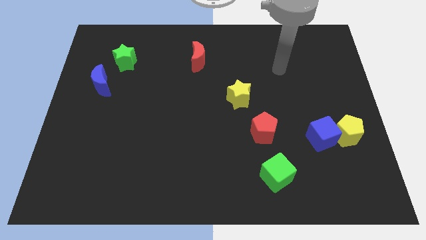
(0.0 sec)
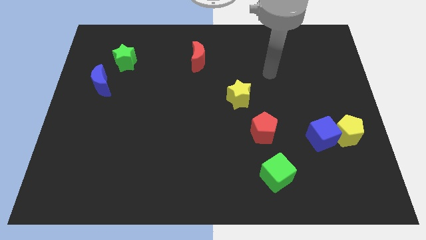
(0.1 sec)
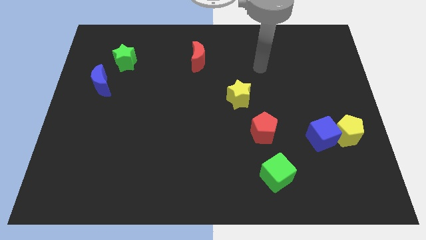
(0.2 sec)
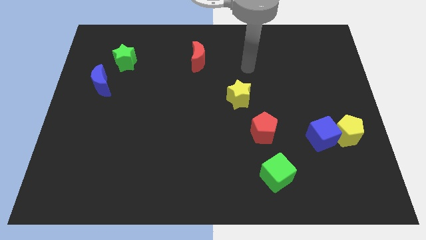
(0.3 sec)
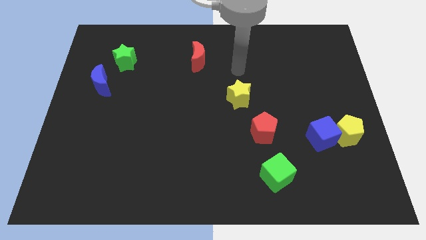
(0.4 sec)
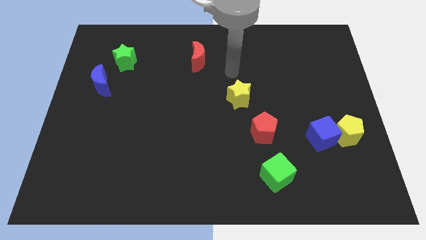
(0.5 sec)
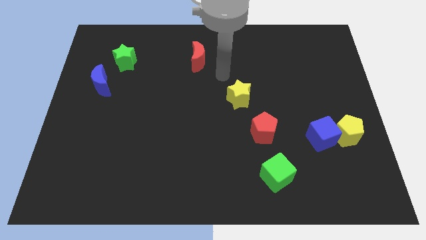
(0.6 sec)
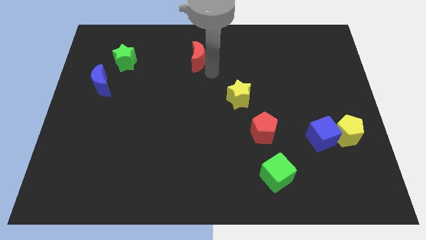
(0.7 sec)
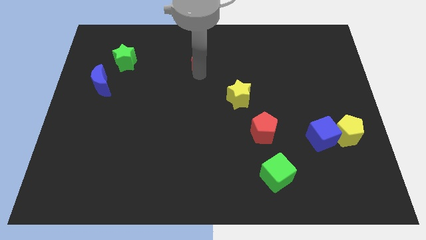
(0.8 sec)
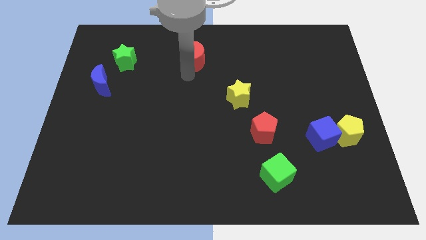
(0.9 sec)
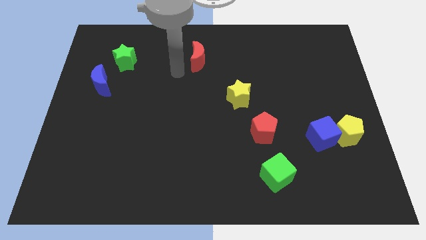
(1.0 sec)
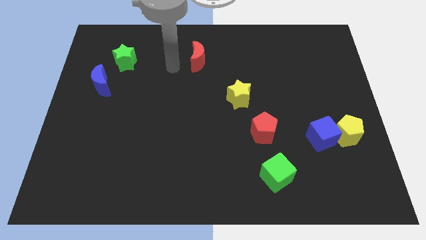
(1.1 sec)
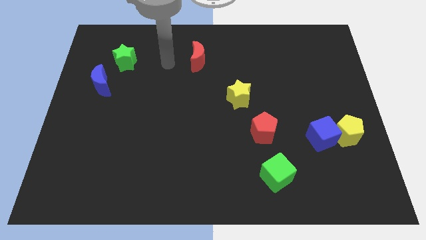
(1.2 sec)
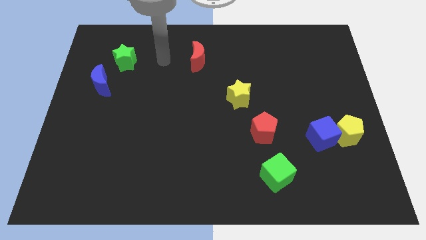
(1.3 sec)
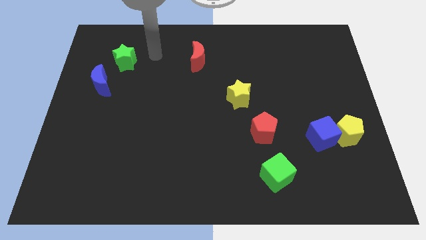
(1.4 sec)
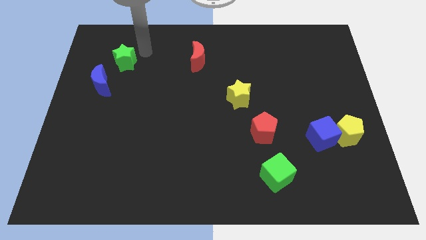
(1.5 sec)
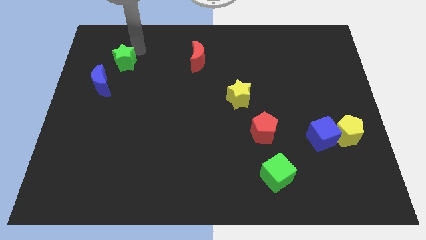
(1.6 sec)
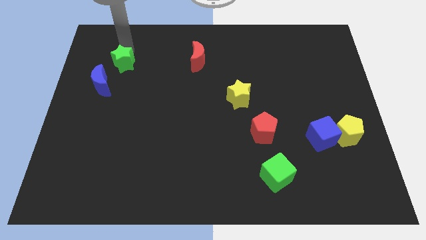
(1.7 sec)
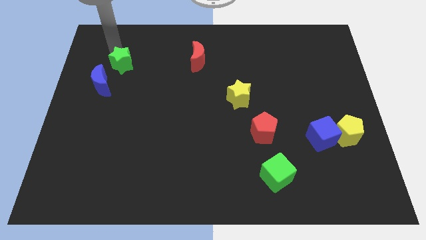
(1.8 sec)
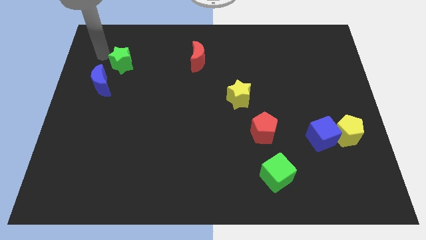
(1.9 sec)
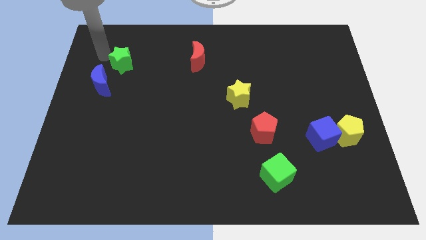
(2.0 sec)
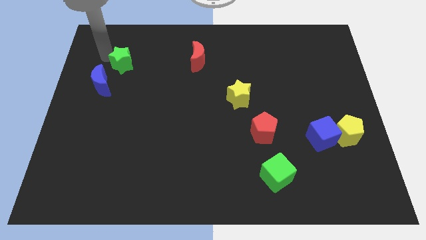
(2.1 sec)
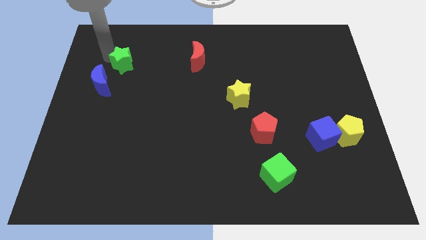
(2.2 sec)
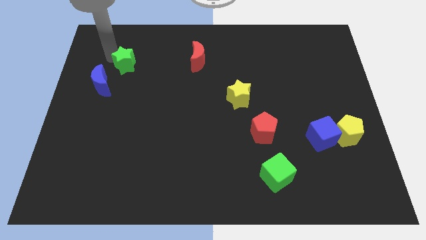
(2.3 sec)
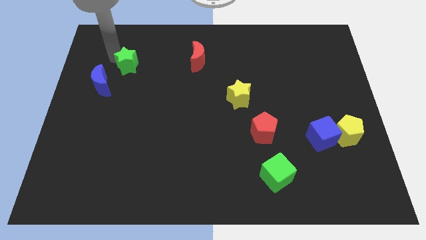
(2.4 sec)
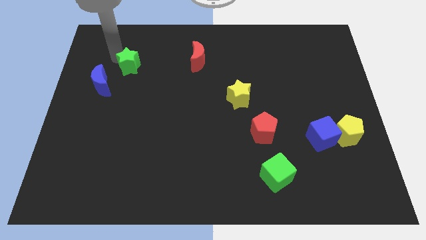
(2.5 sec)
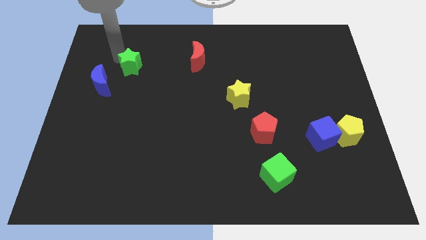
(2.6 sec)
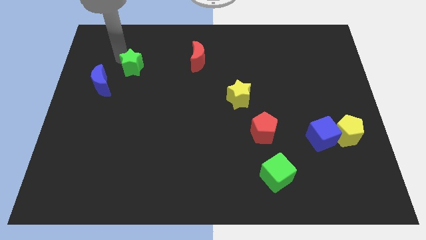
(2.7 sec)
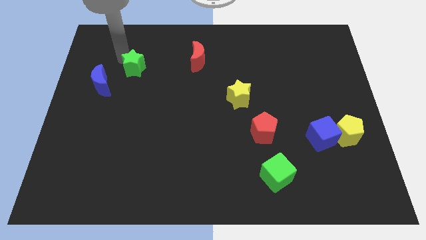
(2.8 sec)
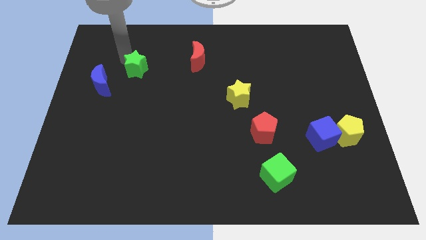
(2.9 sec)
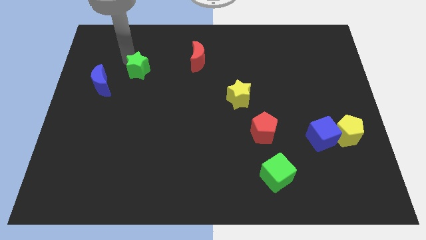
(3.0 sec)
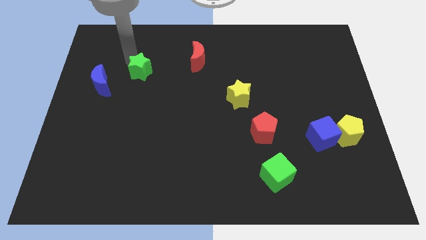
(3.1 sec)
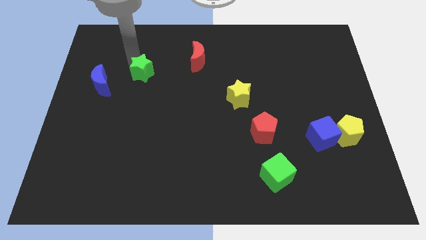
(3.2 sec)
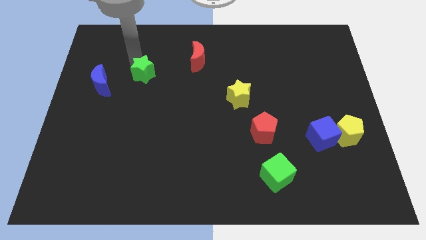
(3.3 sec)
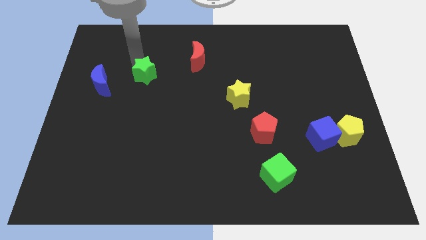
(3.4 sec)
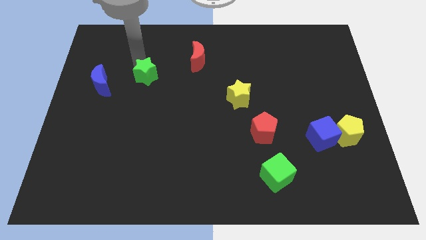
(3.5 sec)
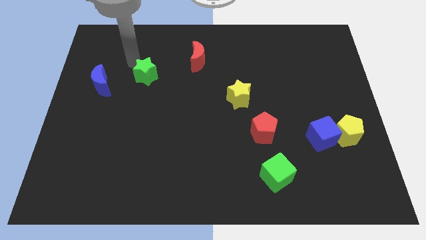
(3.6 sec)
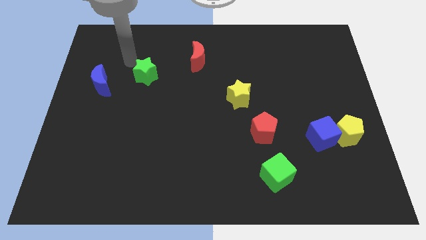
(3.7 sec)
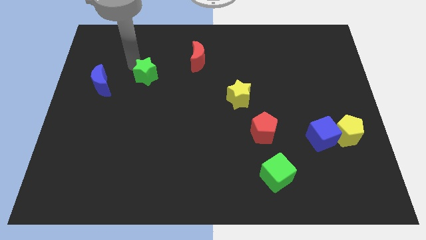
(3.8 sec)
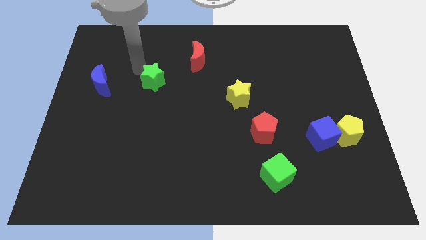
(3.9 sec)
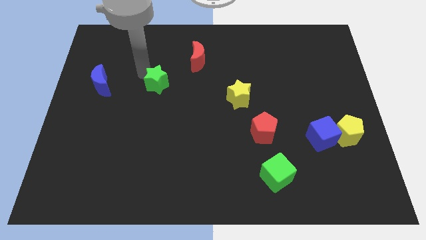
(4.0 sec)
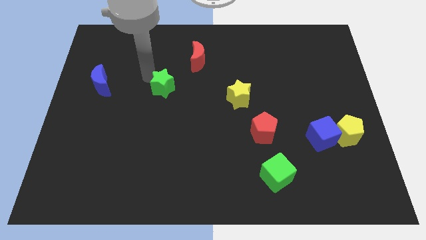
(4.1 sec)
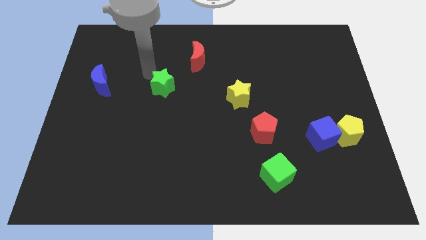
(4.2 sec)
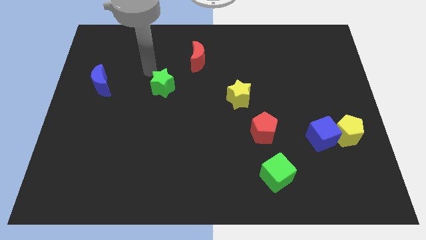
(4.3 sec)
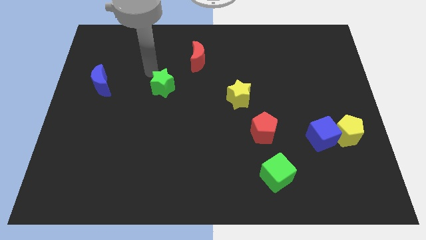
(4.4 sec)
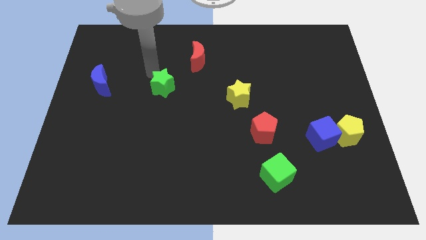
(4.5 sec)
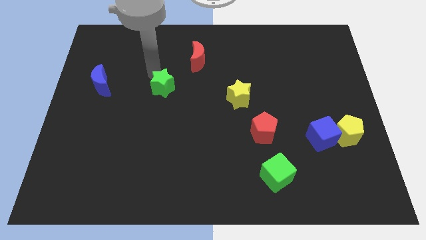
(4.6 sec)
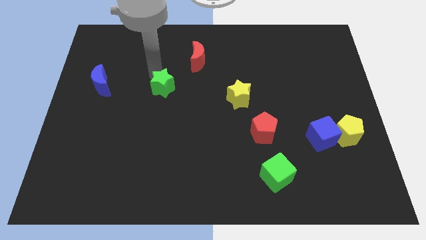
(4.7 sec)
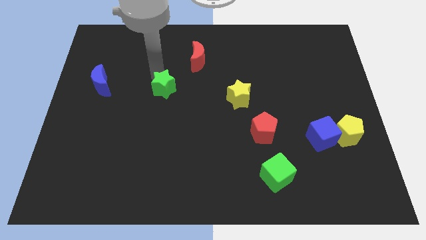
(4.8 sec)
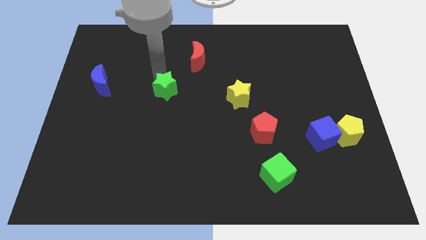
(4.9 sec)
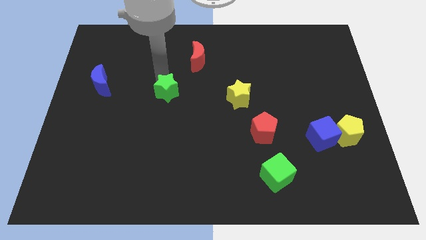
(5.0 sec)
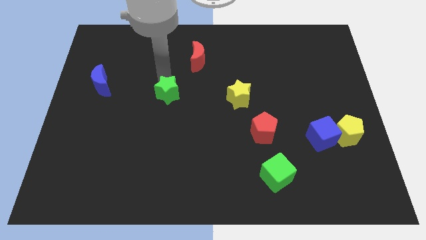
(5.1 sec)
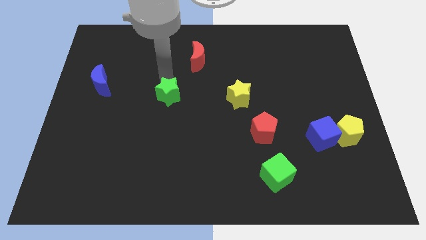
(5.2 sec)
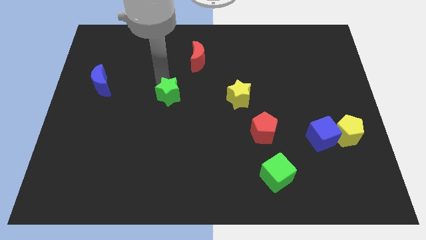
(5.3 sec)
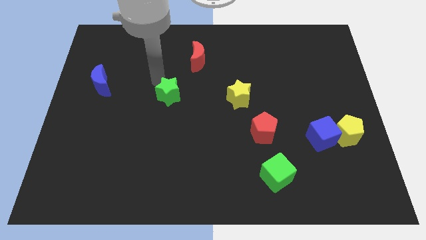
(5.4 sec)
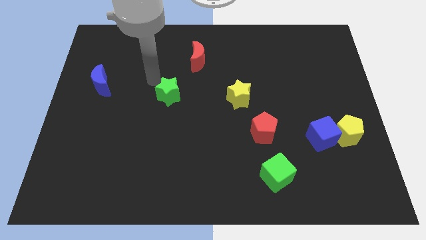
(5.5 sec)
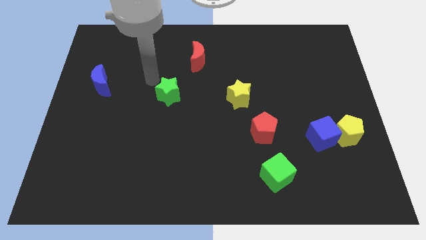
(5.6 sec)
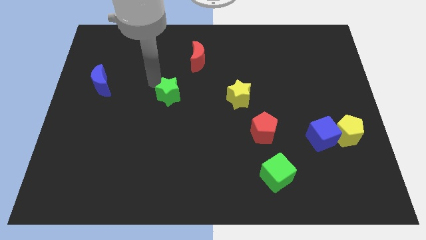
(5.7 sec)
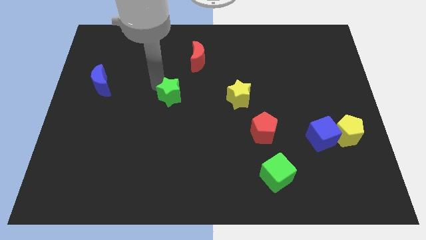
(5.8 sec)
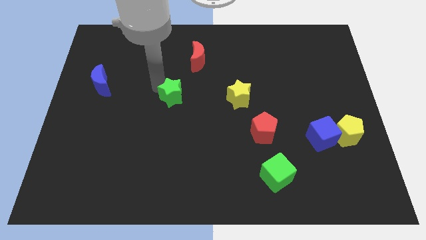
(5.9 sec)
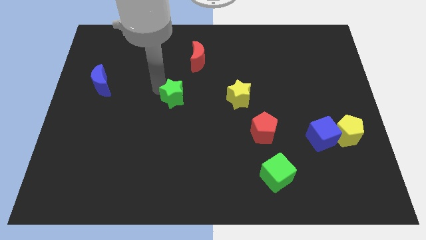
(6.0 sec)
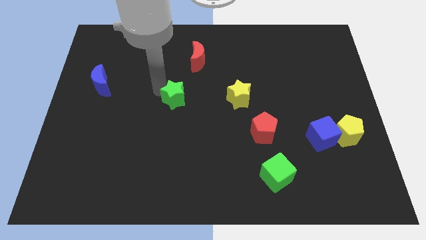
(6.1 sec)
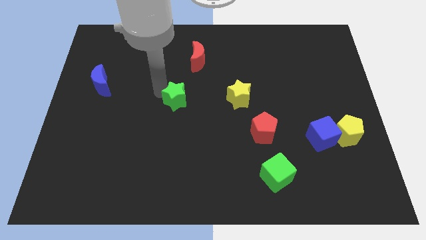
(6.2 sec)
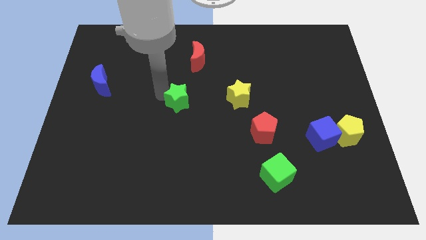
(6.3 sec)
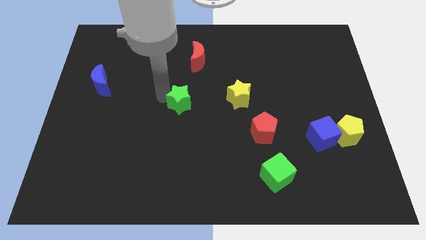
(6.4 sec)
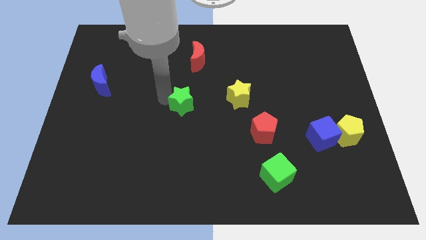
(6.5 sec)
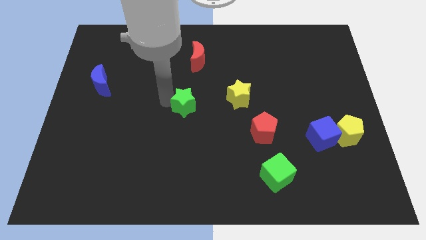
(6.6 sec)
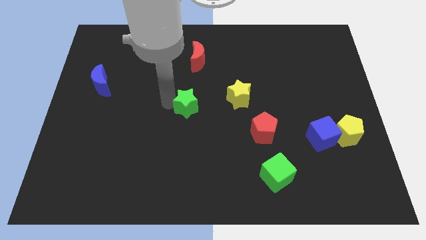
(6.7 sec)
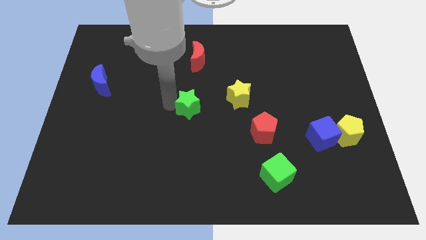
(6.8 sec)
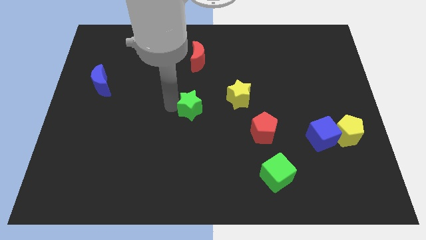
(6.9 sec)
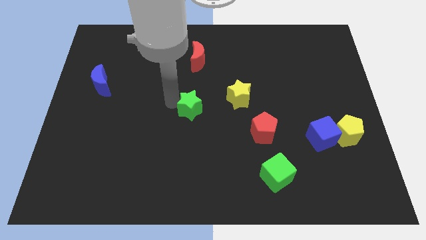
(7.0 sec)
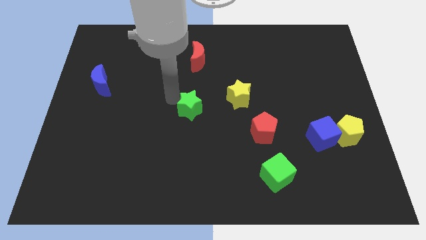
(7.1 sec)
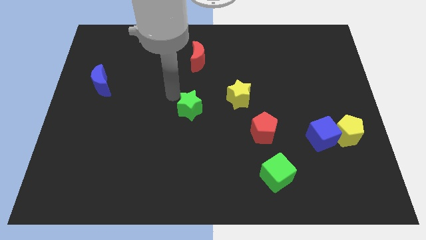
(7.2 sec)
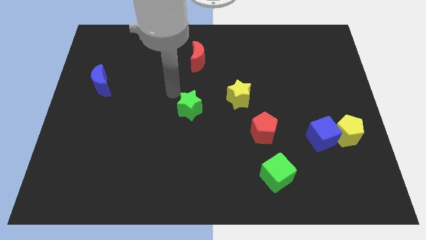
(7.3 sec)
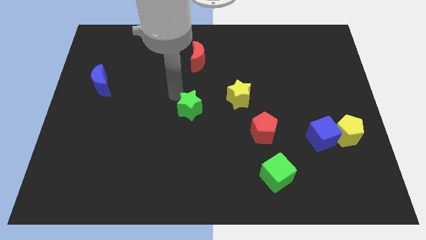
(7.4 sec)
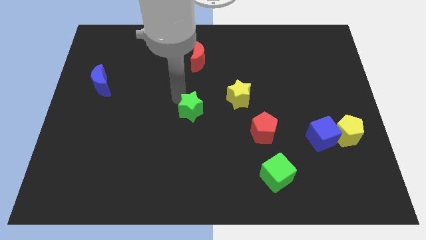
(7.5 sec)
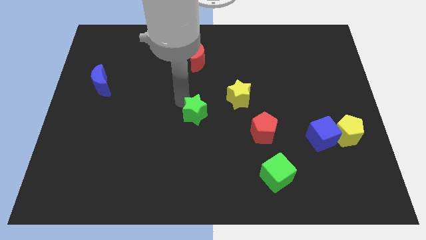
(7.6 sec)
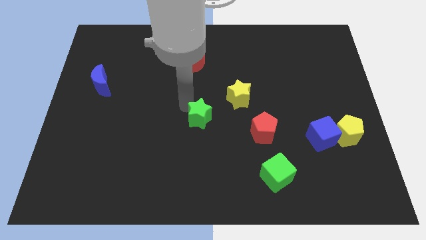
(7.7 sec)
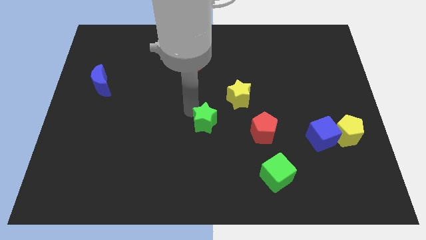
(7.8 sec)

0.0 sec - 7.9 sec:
put the green star just left of the red pentagon
